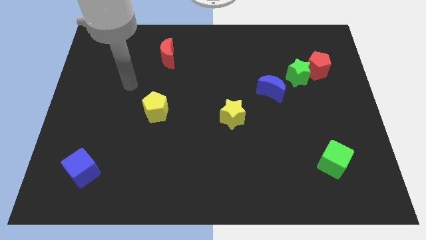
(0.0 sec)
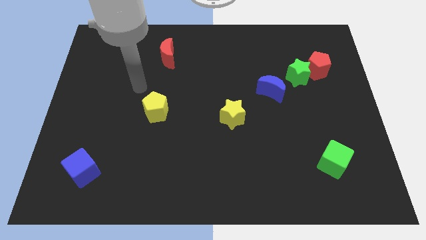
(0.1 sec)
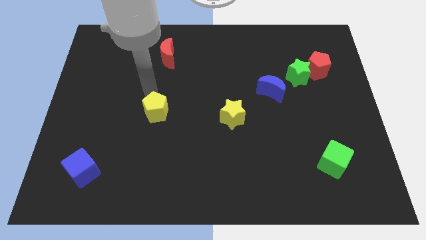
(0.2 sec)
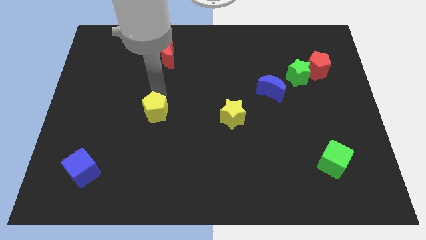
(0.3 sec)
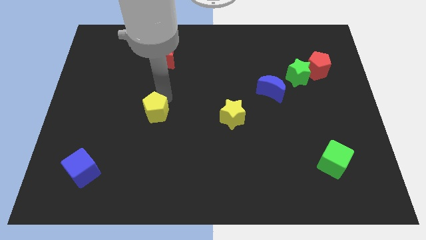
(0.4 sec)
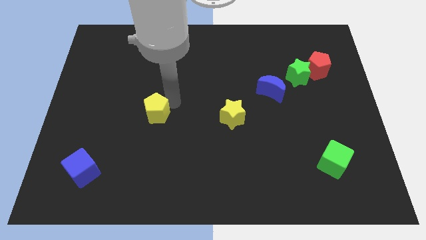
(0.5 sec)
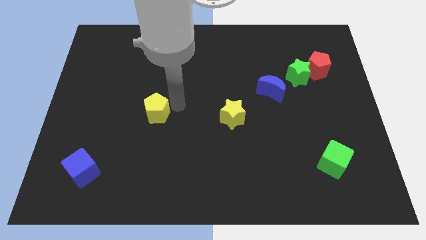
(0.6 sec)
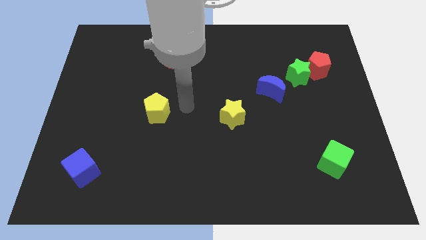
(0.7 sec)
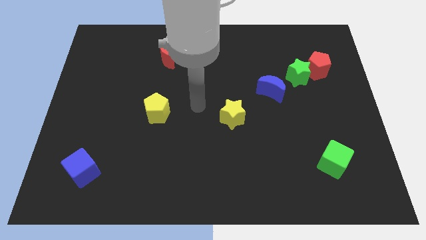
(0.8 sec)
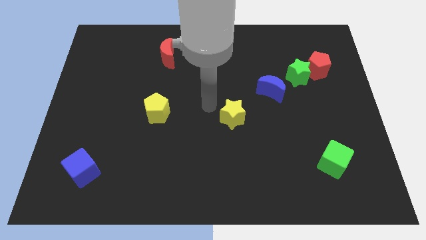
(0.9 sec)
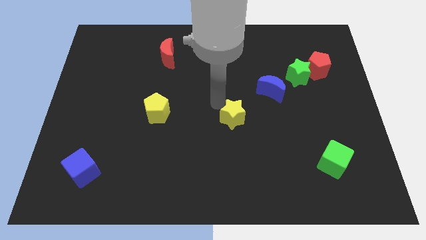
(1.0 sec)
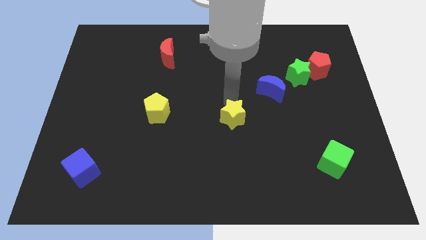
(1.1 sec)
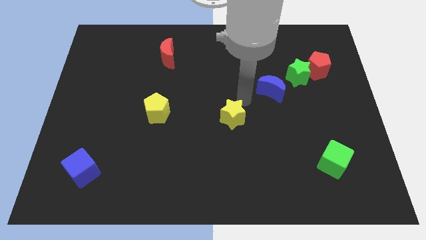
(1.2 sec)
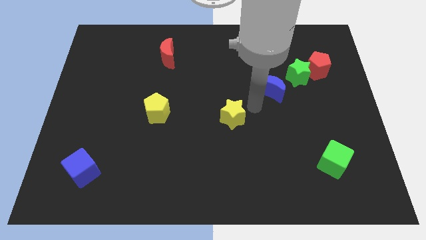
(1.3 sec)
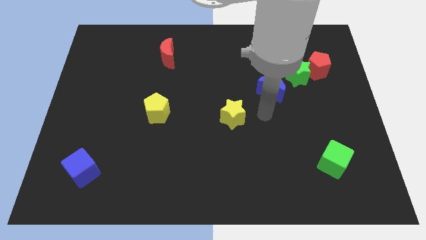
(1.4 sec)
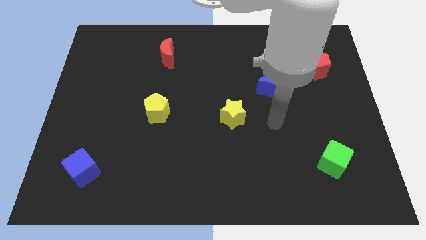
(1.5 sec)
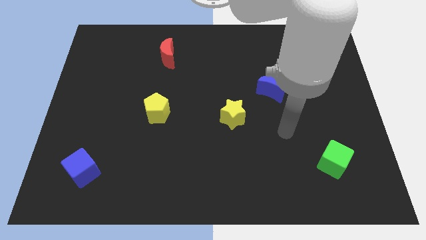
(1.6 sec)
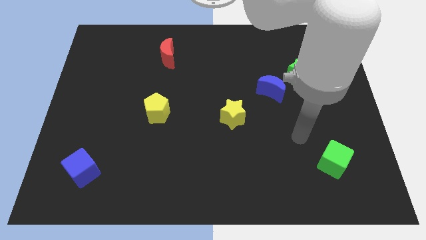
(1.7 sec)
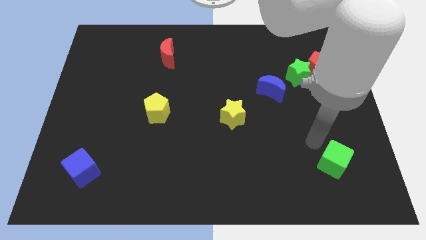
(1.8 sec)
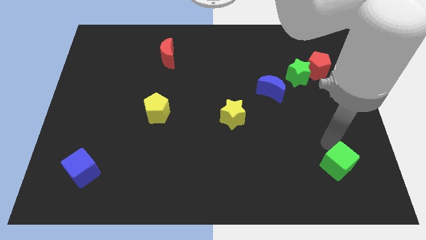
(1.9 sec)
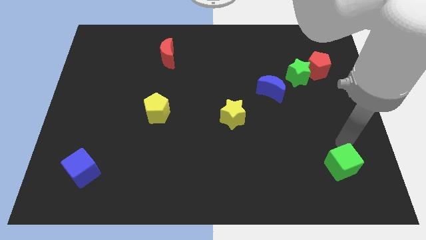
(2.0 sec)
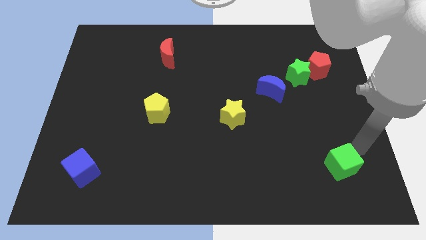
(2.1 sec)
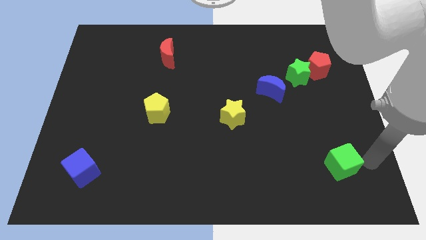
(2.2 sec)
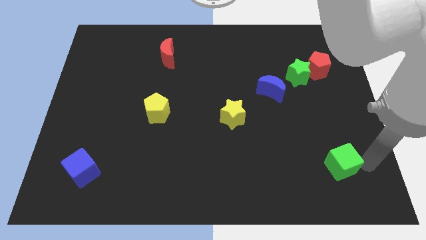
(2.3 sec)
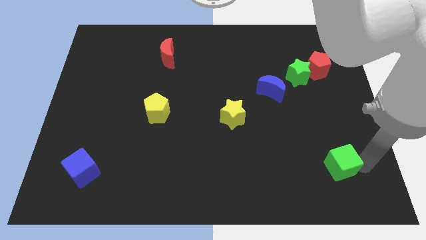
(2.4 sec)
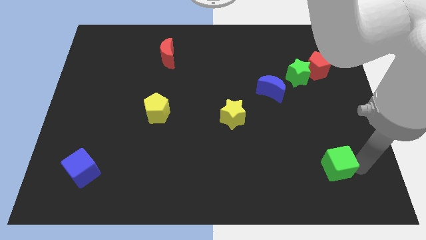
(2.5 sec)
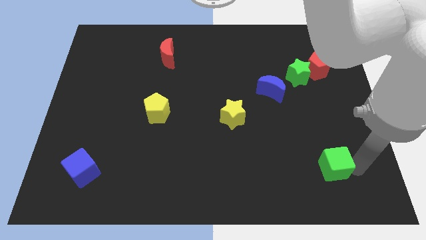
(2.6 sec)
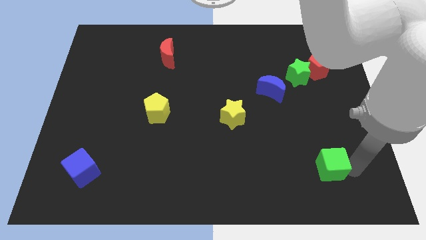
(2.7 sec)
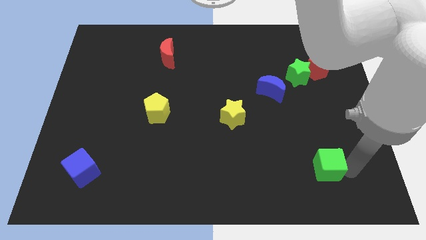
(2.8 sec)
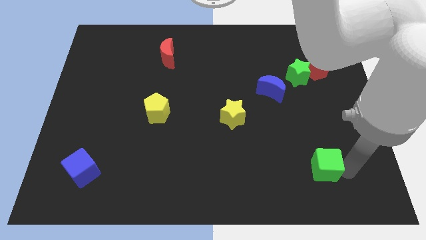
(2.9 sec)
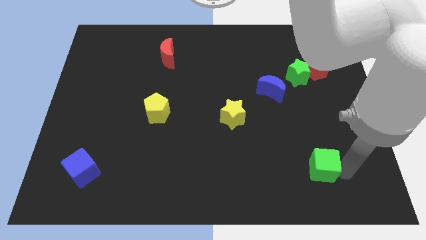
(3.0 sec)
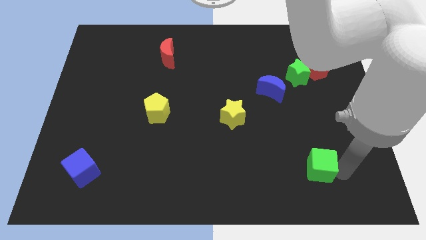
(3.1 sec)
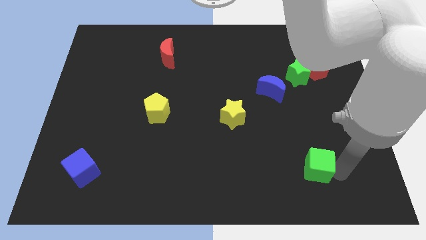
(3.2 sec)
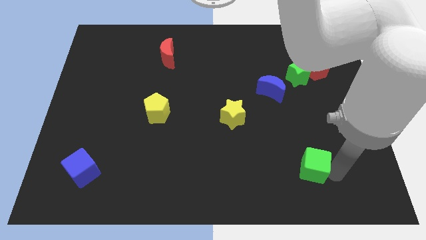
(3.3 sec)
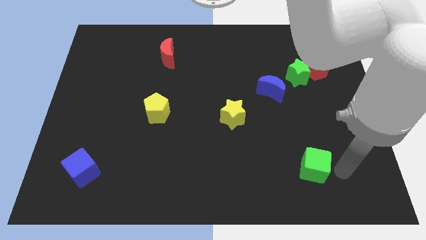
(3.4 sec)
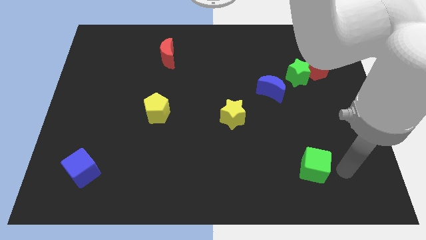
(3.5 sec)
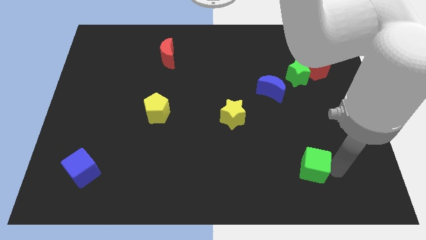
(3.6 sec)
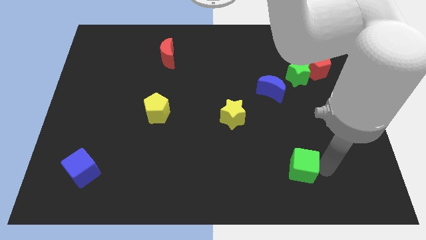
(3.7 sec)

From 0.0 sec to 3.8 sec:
push the green cube left somewhat

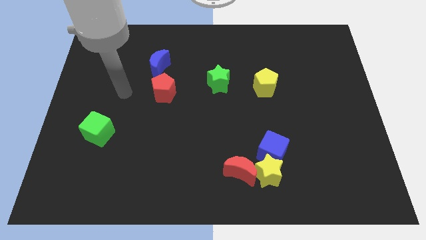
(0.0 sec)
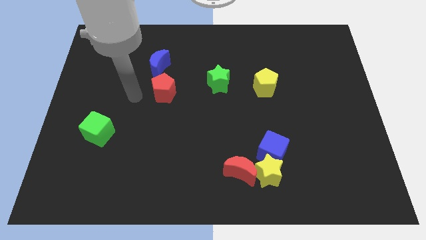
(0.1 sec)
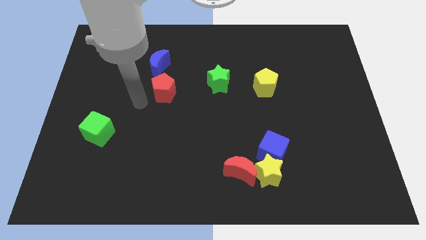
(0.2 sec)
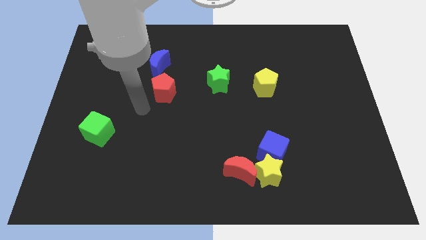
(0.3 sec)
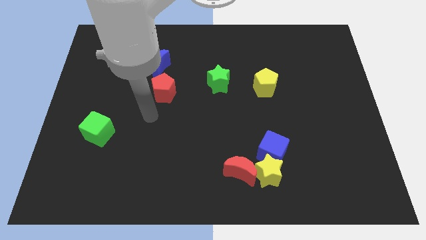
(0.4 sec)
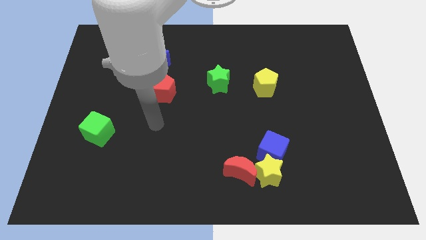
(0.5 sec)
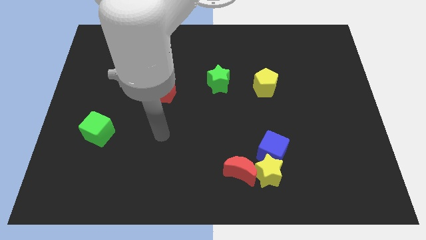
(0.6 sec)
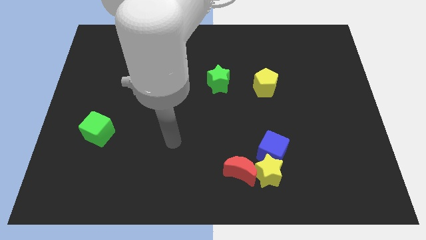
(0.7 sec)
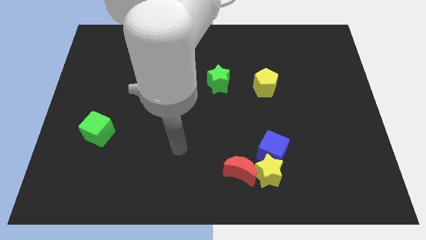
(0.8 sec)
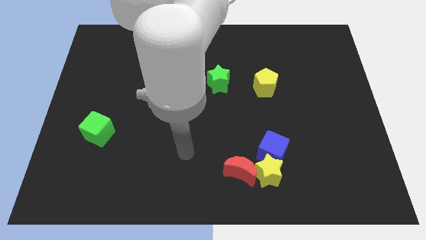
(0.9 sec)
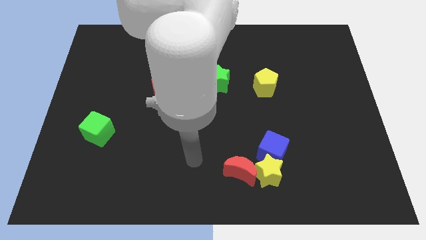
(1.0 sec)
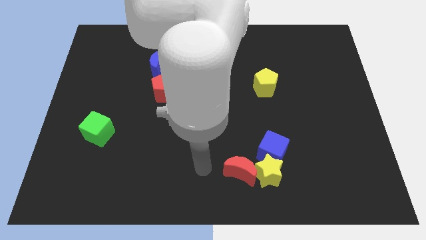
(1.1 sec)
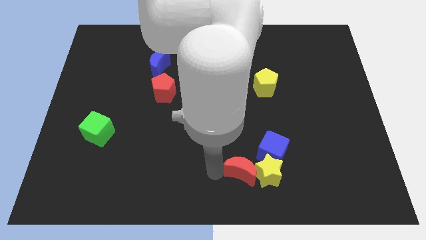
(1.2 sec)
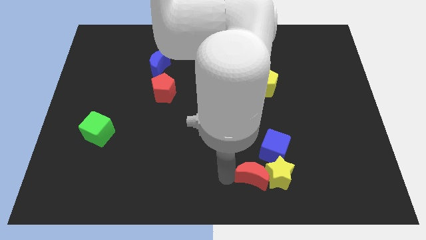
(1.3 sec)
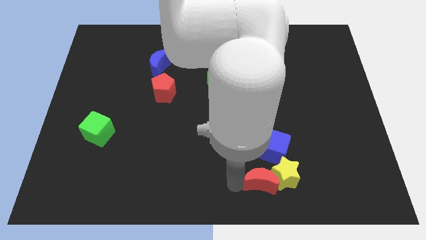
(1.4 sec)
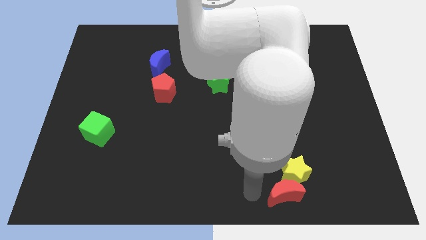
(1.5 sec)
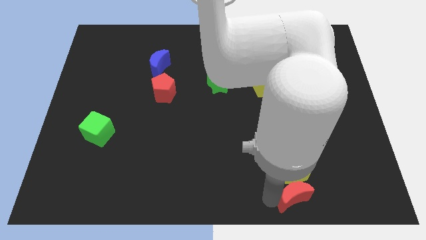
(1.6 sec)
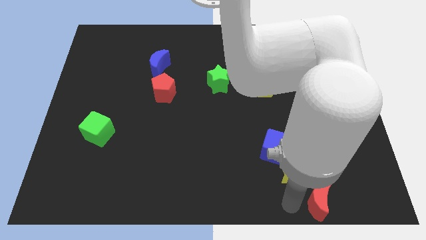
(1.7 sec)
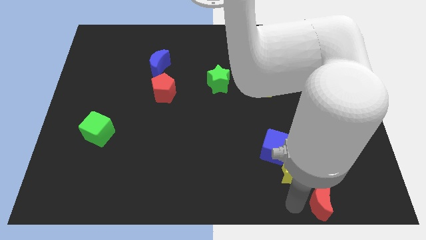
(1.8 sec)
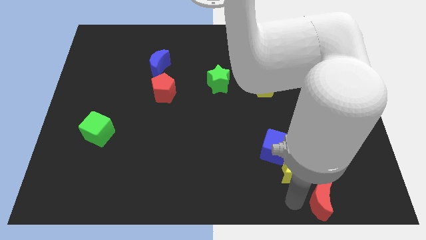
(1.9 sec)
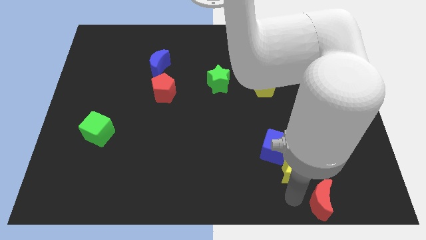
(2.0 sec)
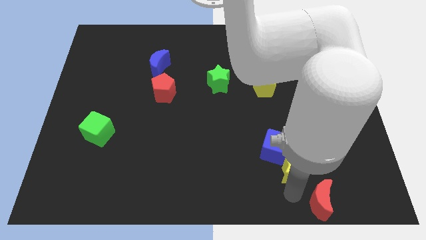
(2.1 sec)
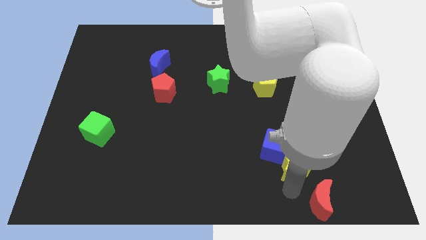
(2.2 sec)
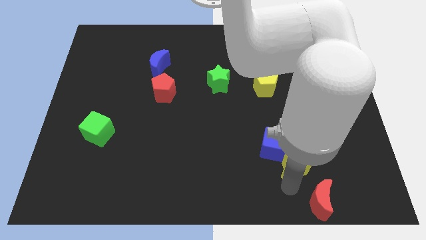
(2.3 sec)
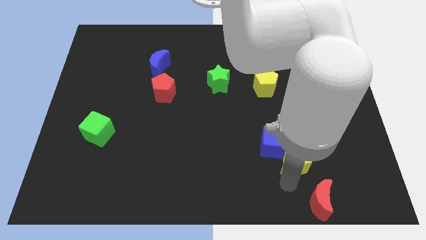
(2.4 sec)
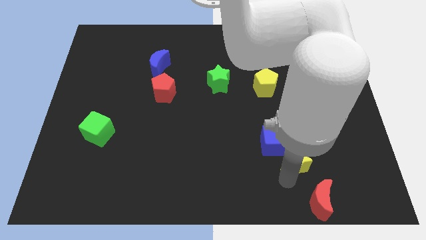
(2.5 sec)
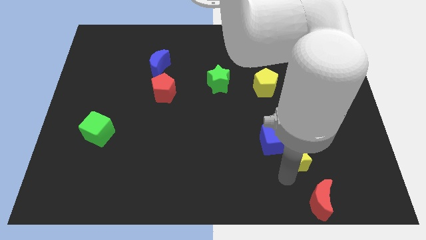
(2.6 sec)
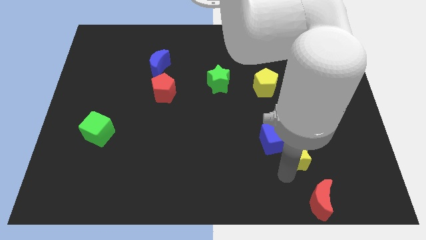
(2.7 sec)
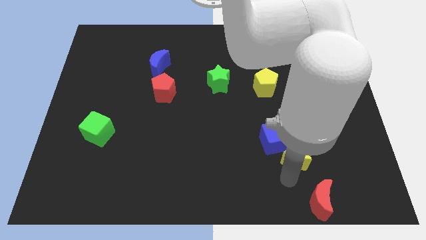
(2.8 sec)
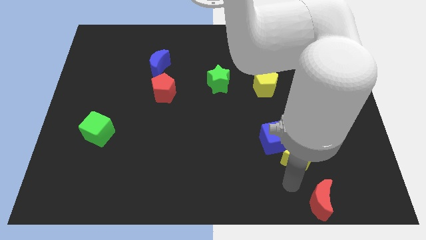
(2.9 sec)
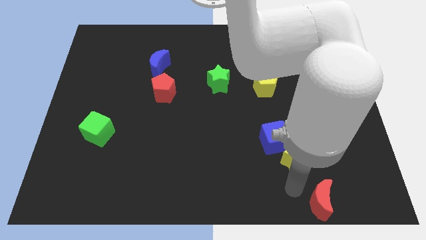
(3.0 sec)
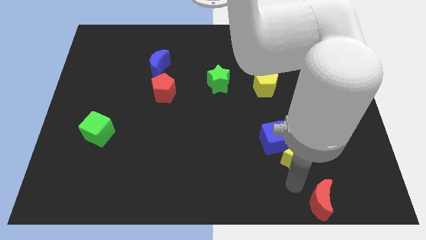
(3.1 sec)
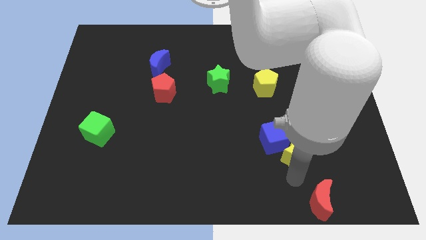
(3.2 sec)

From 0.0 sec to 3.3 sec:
move the yellow star diagonally up and right a little

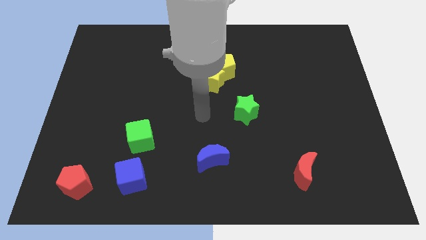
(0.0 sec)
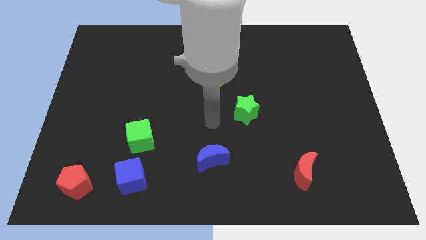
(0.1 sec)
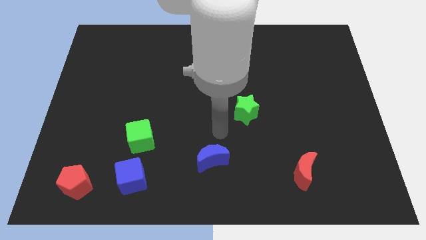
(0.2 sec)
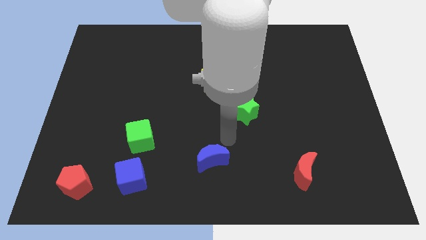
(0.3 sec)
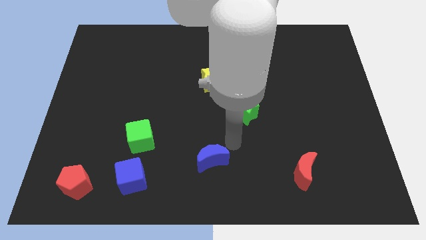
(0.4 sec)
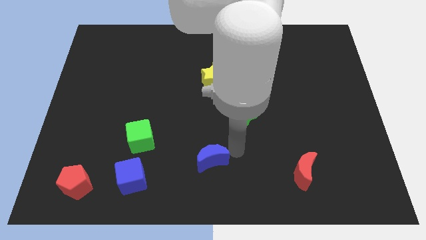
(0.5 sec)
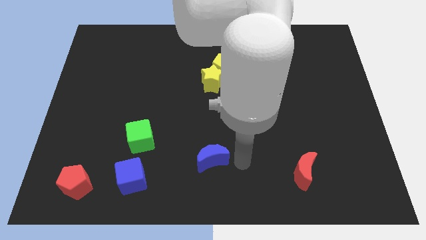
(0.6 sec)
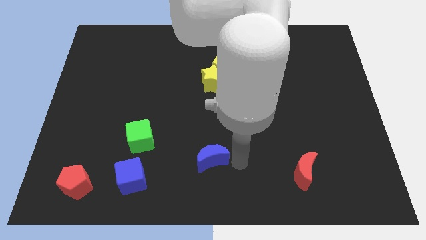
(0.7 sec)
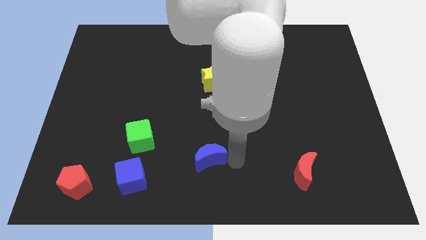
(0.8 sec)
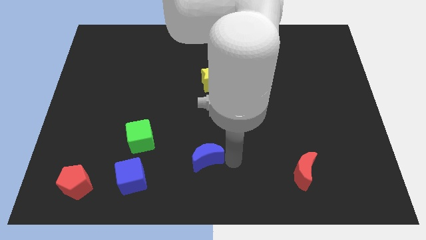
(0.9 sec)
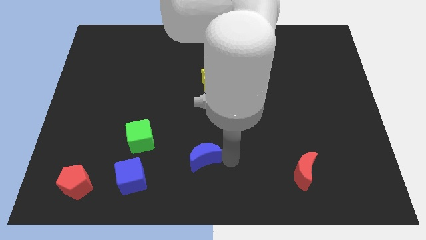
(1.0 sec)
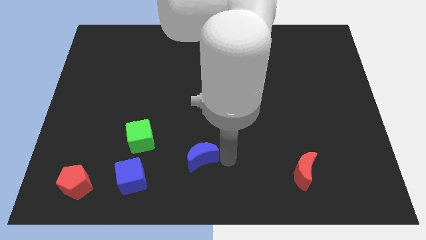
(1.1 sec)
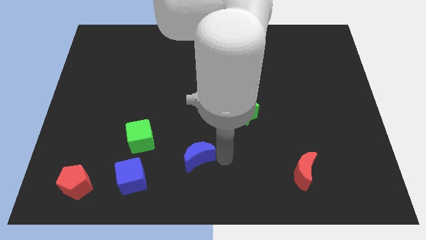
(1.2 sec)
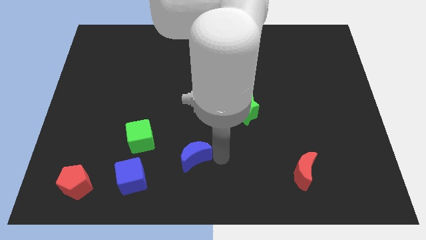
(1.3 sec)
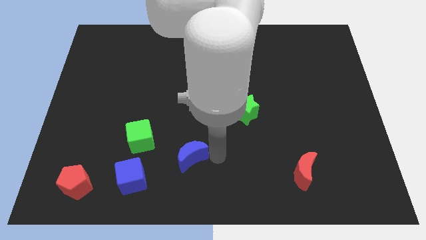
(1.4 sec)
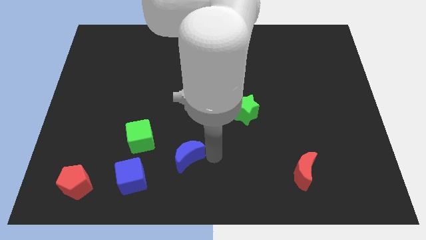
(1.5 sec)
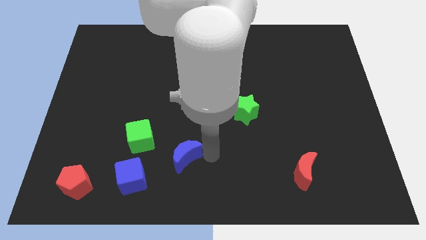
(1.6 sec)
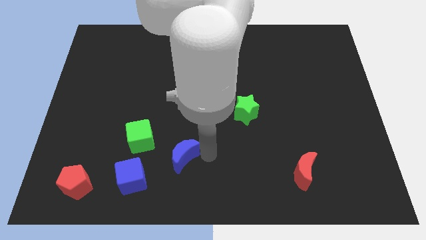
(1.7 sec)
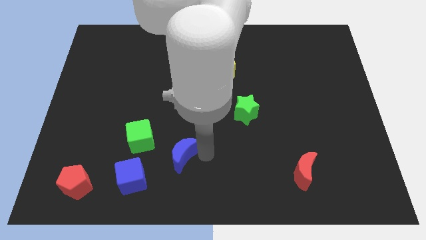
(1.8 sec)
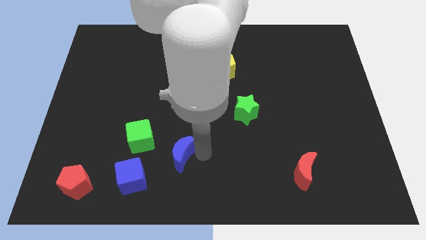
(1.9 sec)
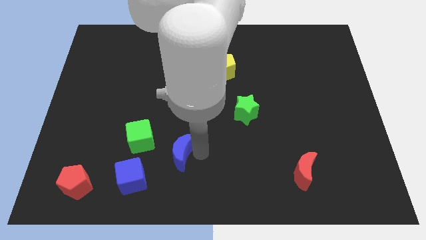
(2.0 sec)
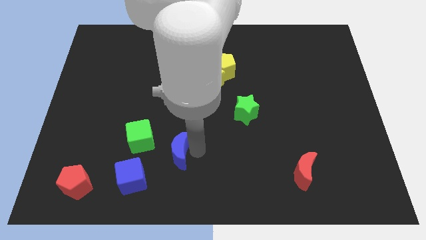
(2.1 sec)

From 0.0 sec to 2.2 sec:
push the blue moon a bit left
